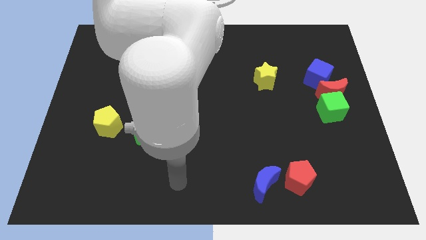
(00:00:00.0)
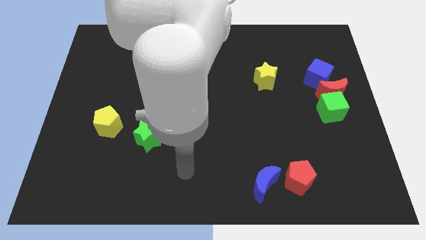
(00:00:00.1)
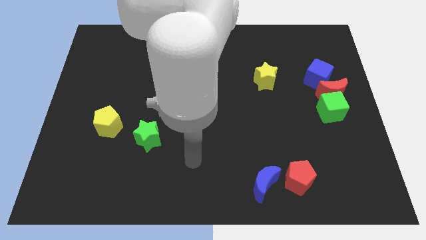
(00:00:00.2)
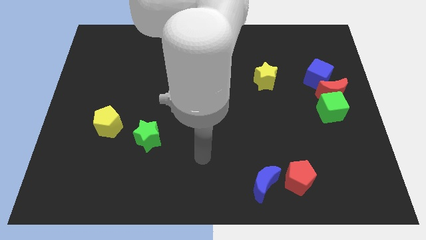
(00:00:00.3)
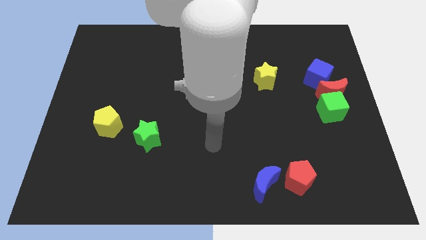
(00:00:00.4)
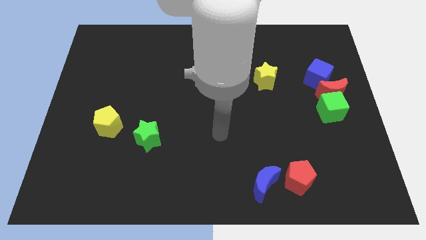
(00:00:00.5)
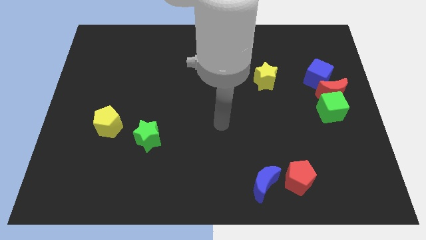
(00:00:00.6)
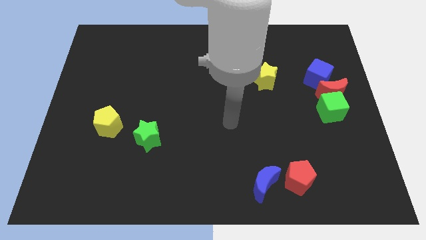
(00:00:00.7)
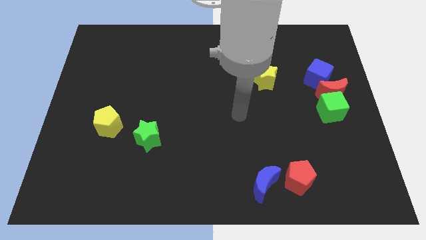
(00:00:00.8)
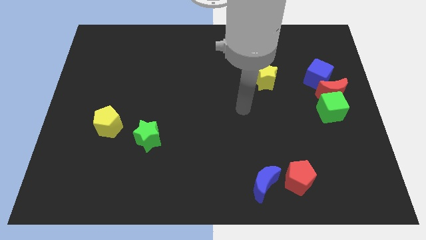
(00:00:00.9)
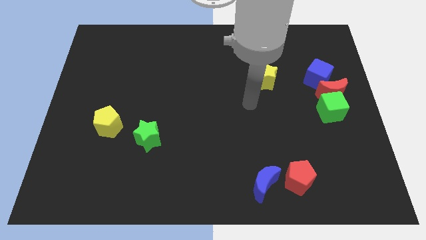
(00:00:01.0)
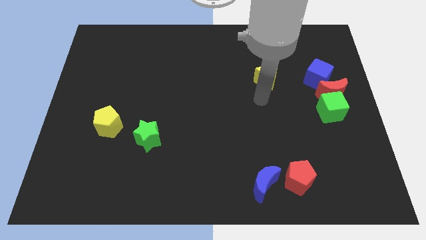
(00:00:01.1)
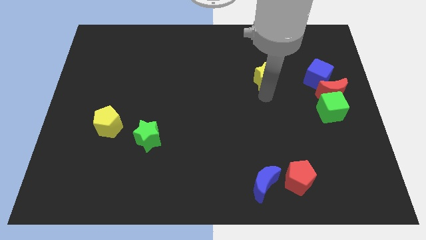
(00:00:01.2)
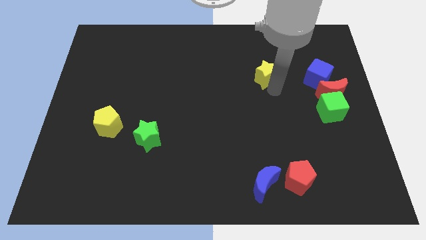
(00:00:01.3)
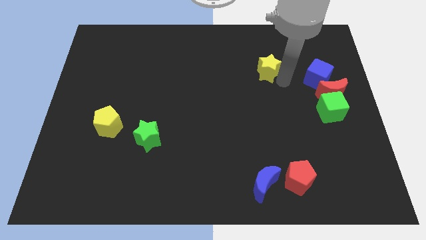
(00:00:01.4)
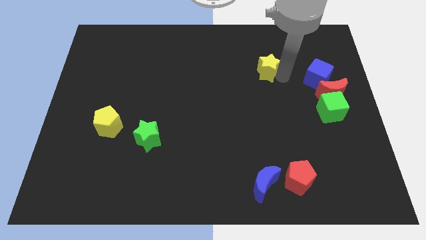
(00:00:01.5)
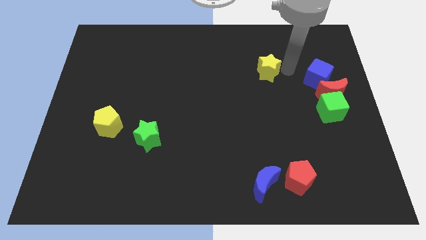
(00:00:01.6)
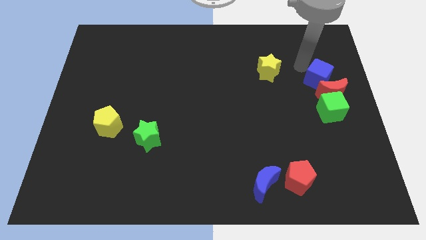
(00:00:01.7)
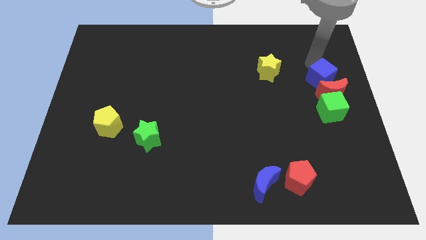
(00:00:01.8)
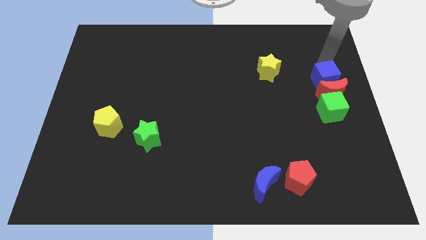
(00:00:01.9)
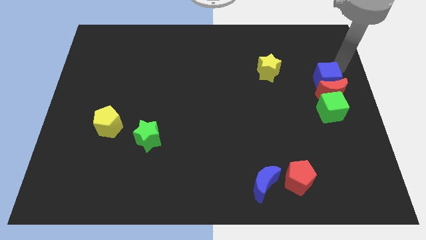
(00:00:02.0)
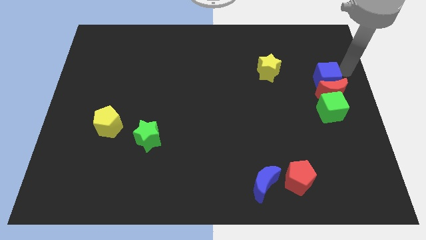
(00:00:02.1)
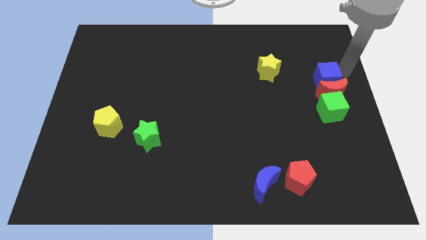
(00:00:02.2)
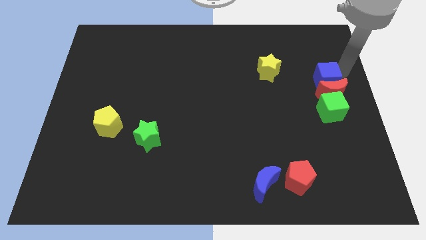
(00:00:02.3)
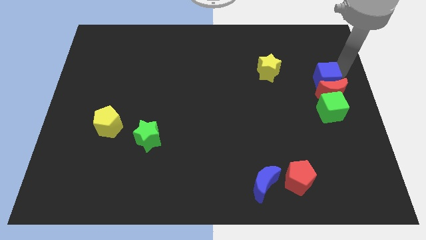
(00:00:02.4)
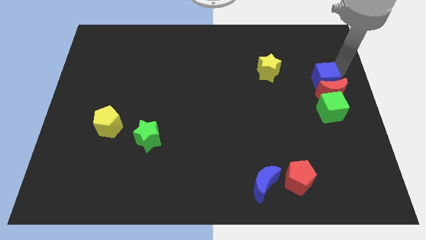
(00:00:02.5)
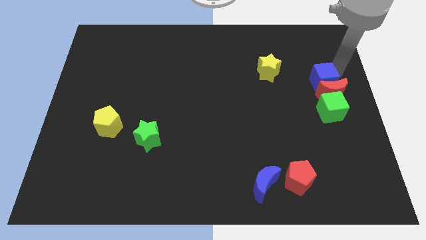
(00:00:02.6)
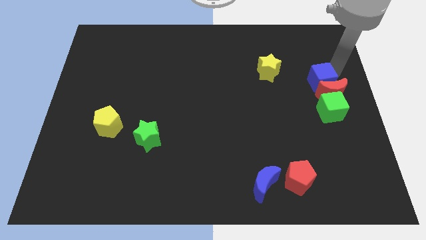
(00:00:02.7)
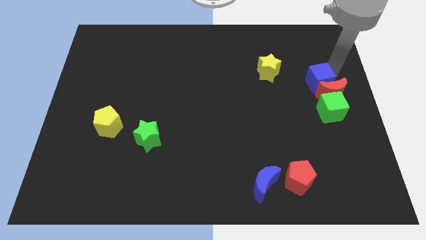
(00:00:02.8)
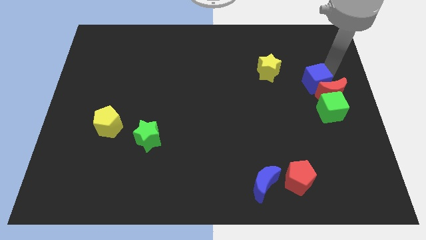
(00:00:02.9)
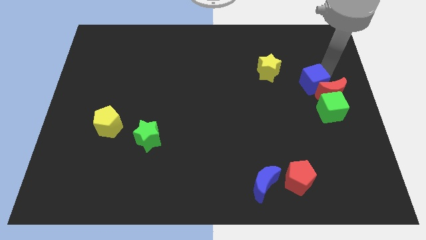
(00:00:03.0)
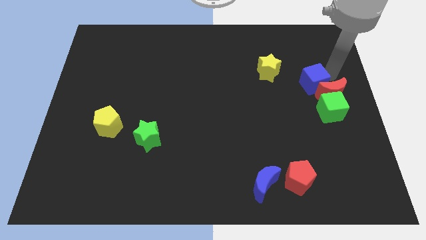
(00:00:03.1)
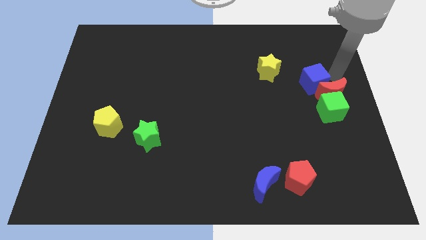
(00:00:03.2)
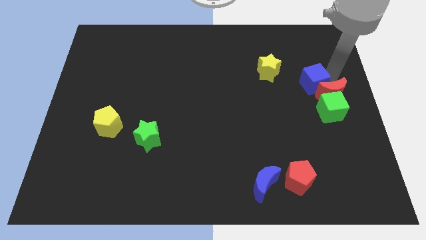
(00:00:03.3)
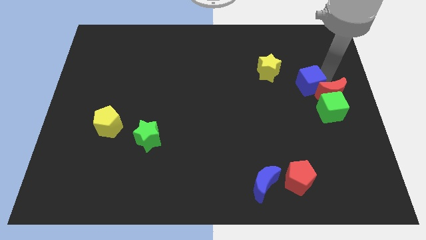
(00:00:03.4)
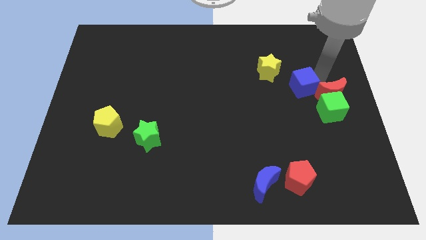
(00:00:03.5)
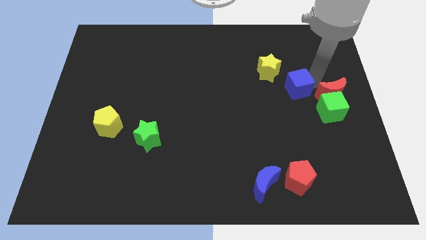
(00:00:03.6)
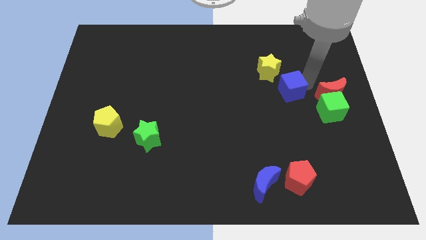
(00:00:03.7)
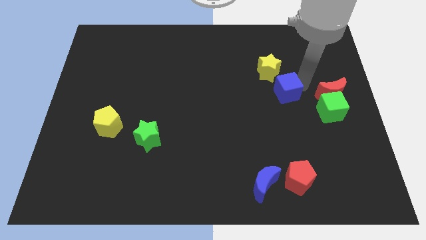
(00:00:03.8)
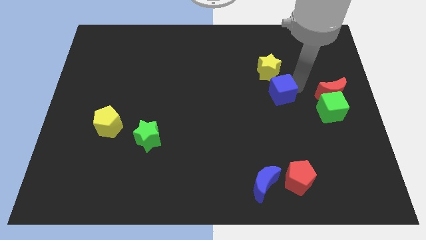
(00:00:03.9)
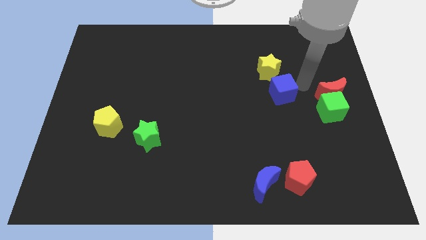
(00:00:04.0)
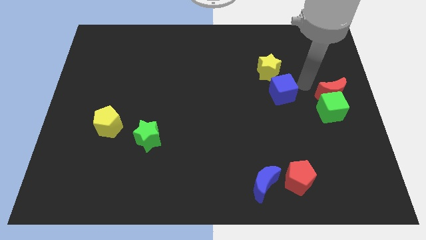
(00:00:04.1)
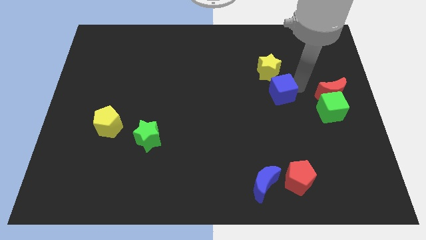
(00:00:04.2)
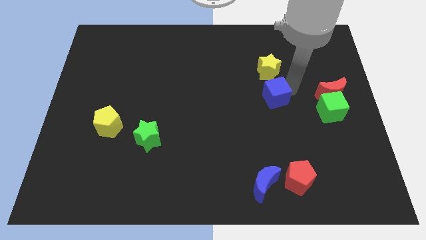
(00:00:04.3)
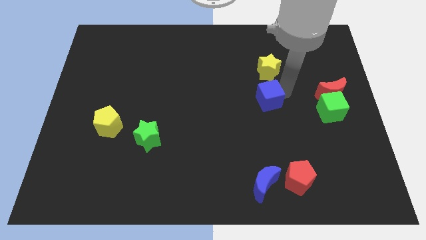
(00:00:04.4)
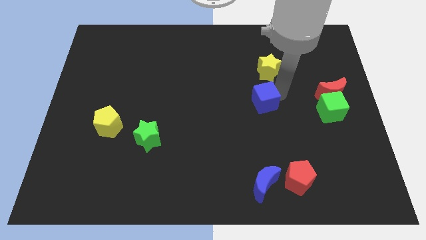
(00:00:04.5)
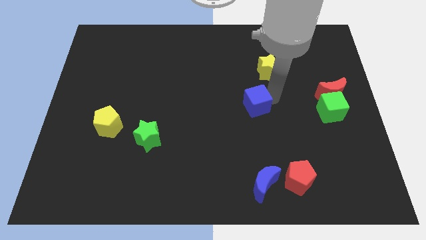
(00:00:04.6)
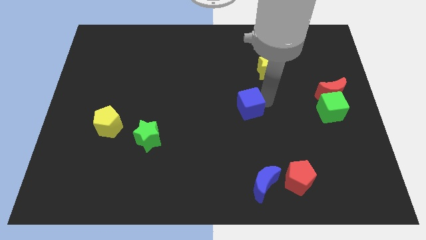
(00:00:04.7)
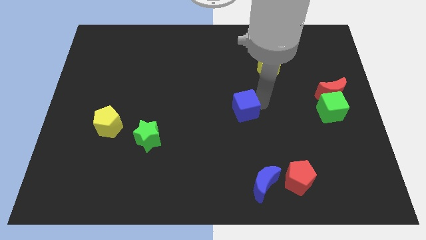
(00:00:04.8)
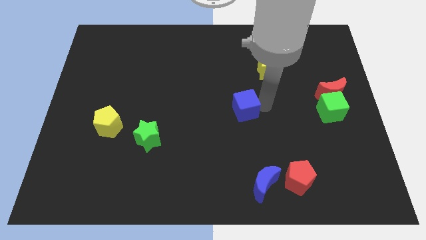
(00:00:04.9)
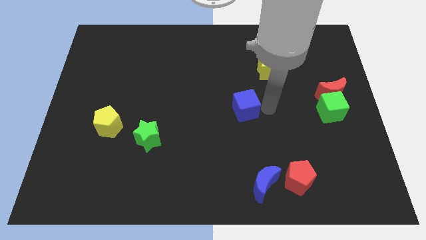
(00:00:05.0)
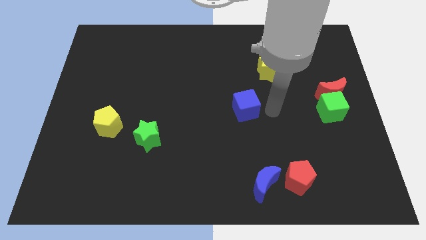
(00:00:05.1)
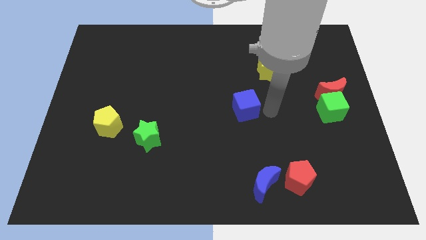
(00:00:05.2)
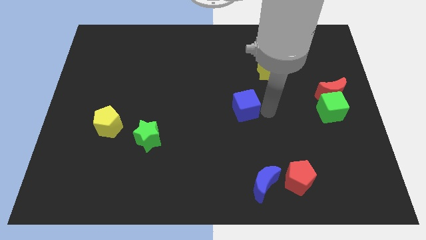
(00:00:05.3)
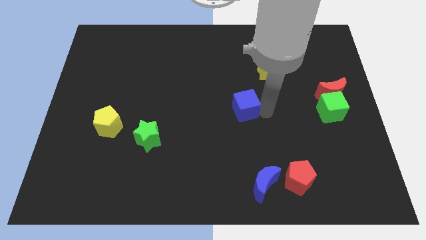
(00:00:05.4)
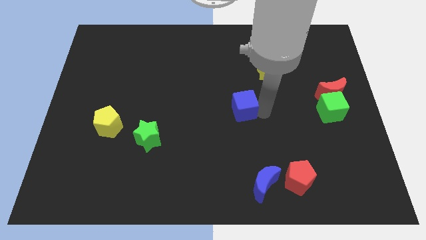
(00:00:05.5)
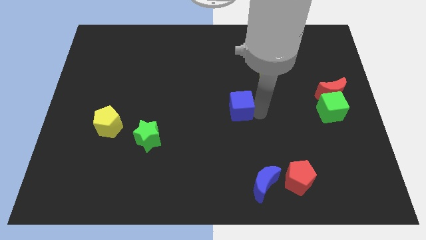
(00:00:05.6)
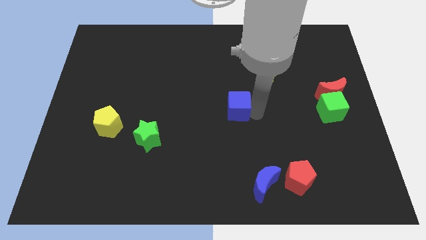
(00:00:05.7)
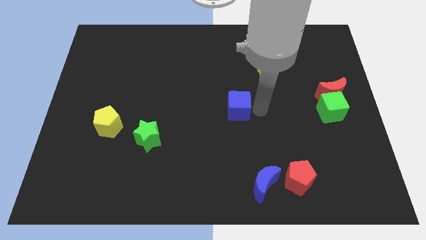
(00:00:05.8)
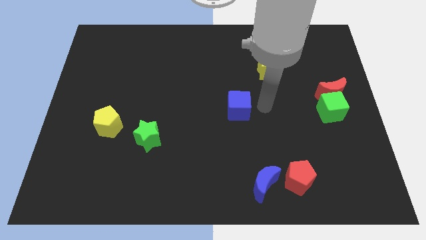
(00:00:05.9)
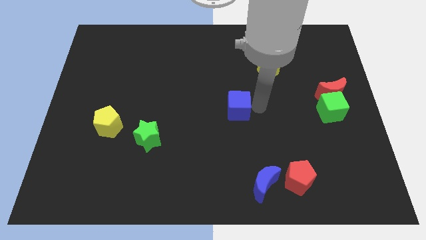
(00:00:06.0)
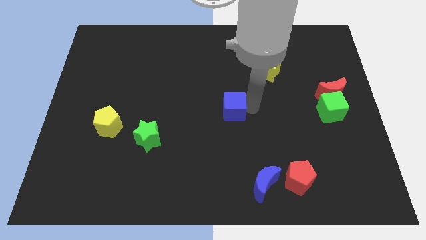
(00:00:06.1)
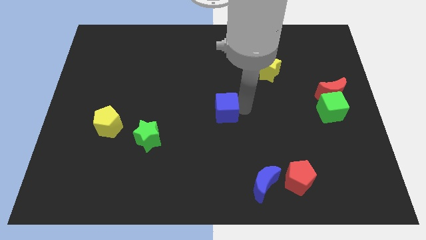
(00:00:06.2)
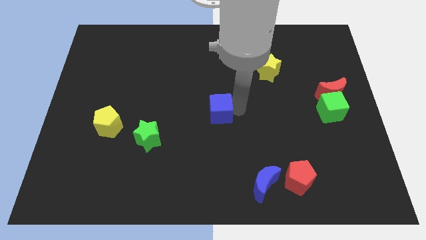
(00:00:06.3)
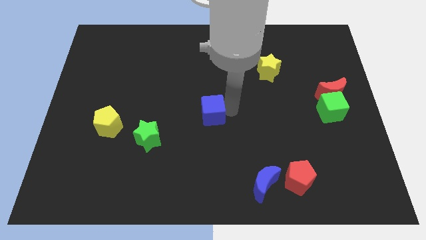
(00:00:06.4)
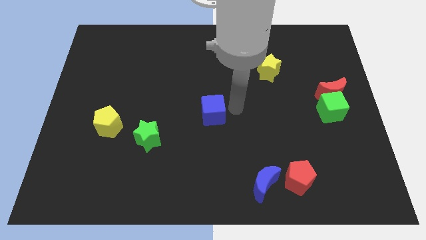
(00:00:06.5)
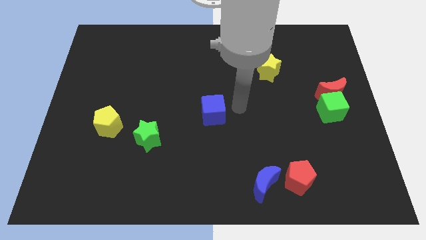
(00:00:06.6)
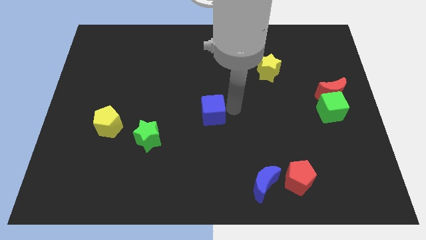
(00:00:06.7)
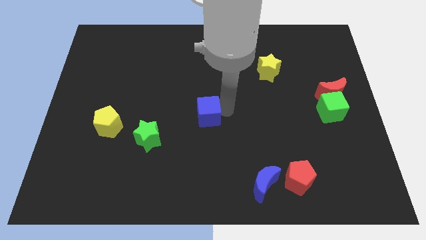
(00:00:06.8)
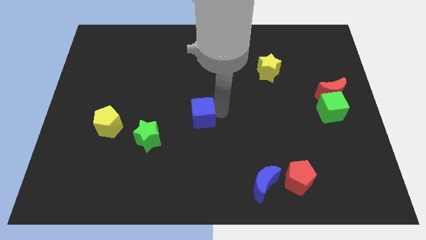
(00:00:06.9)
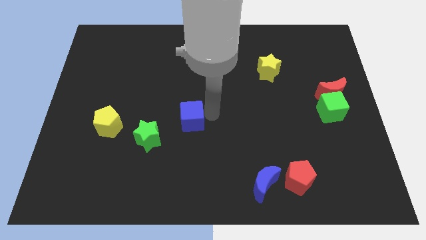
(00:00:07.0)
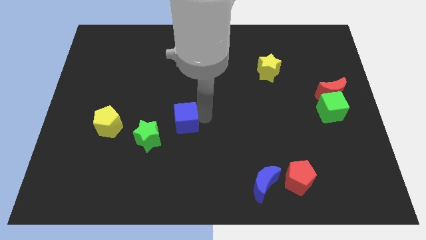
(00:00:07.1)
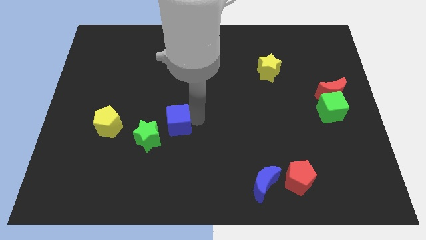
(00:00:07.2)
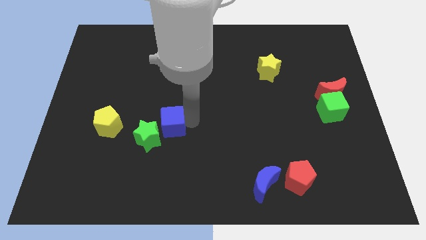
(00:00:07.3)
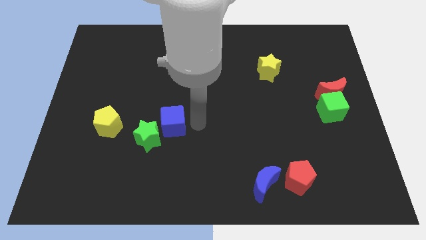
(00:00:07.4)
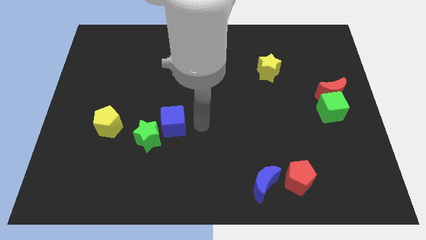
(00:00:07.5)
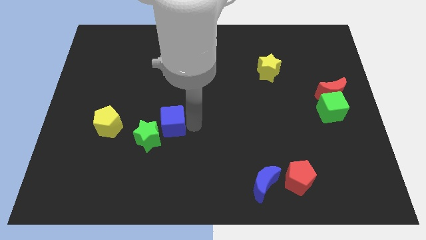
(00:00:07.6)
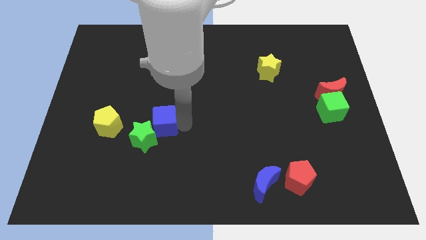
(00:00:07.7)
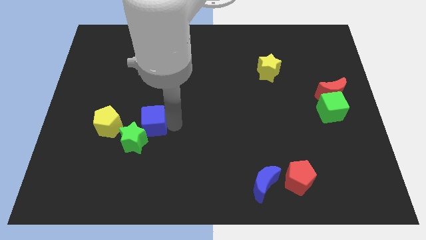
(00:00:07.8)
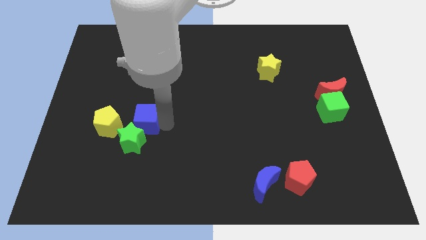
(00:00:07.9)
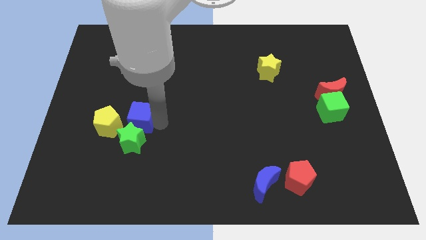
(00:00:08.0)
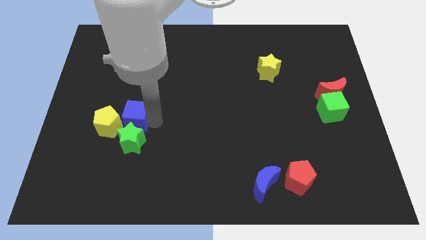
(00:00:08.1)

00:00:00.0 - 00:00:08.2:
move the blue cube close to the yellow pentagon
